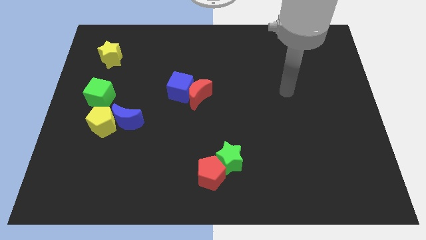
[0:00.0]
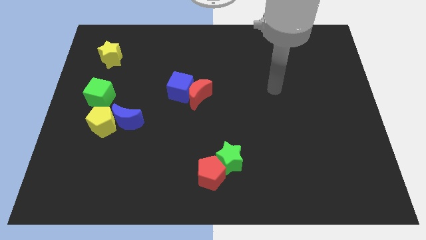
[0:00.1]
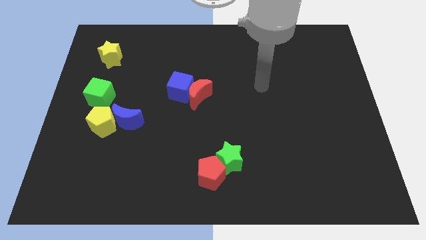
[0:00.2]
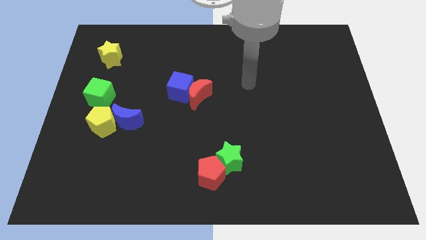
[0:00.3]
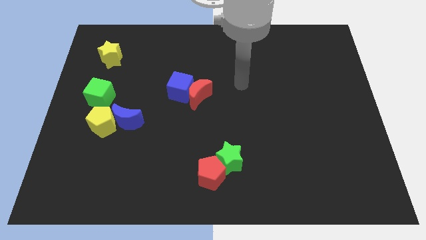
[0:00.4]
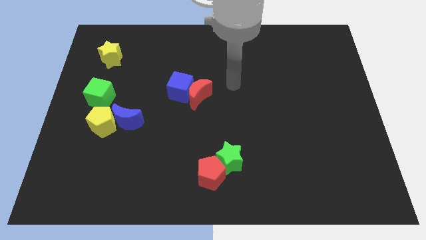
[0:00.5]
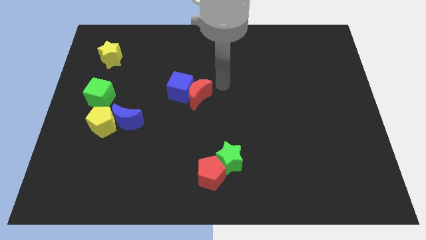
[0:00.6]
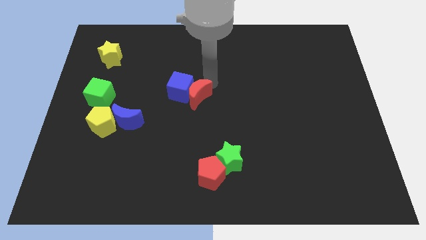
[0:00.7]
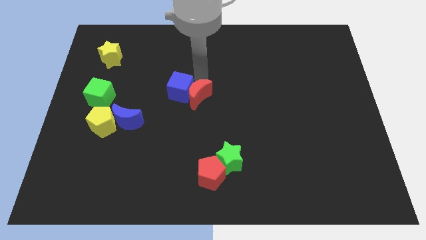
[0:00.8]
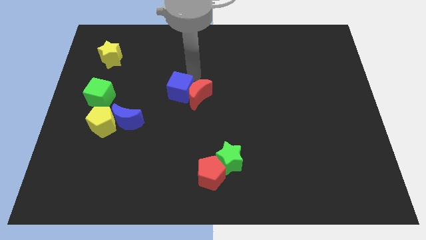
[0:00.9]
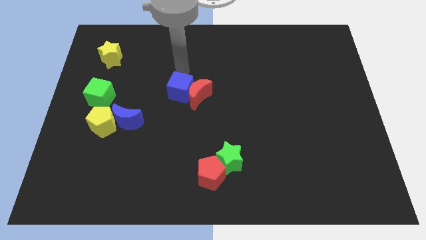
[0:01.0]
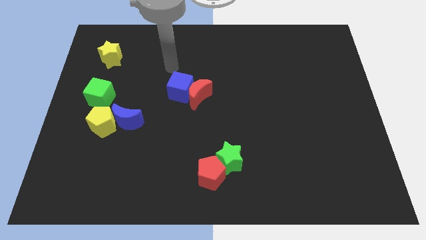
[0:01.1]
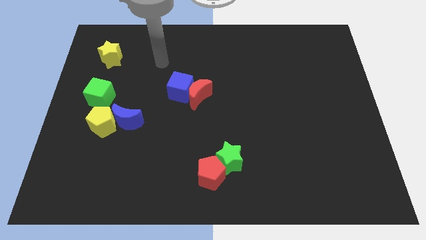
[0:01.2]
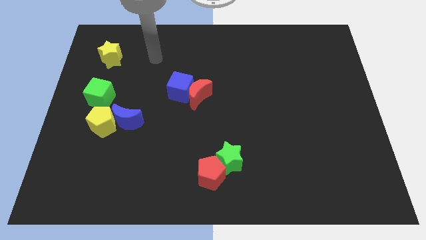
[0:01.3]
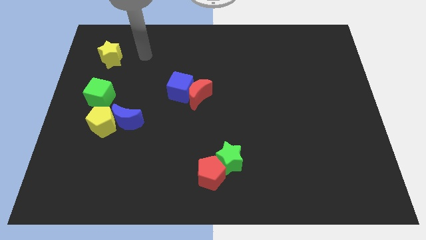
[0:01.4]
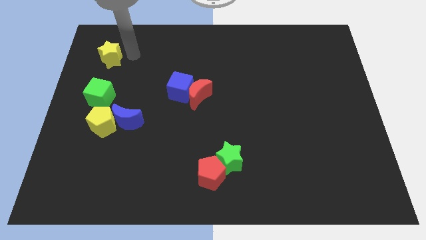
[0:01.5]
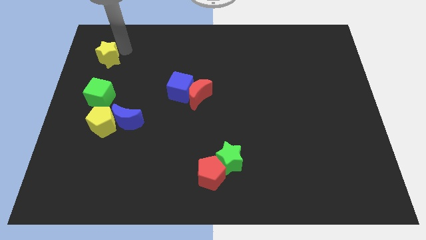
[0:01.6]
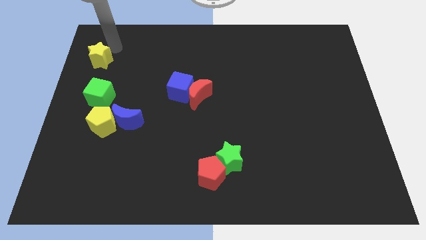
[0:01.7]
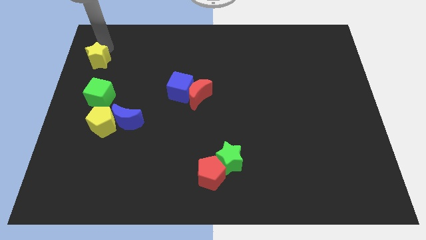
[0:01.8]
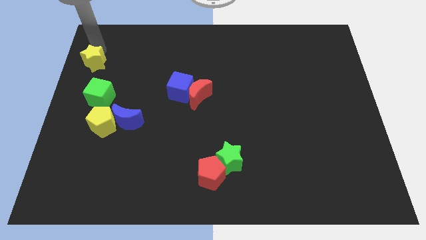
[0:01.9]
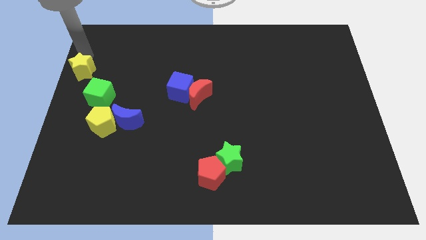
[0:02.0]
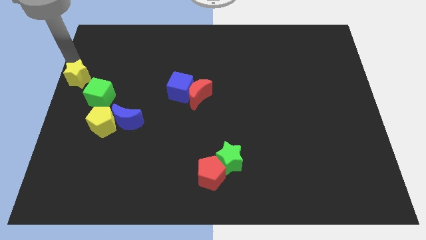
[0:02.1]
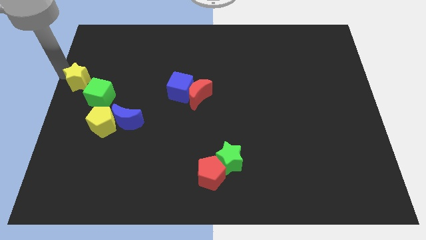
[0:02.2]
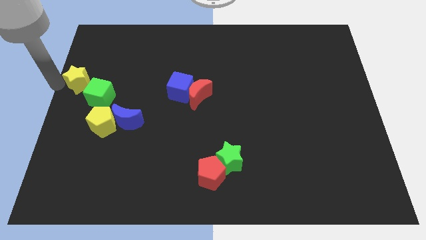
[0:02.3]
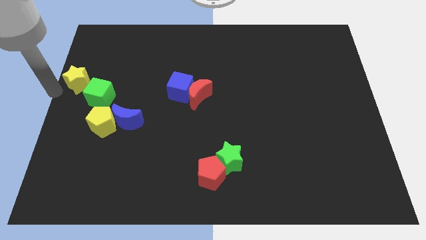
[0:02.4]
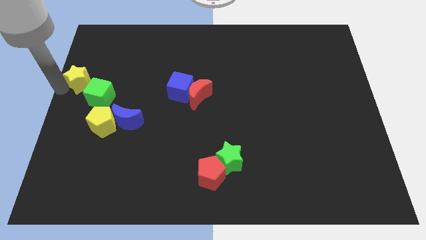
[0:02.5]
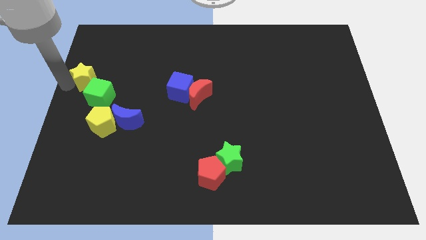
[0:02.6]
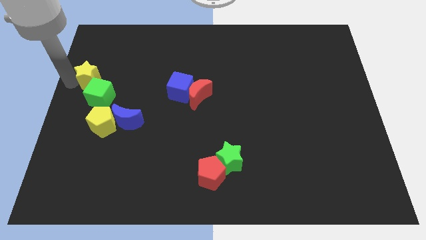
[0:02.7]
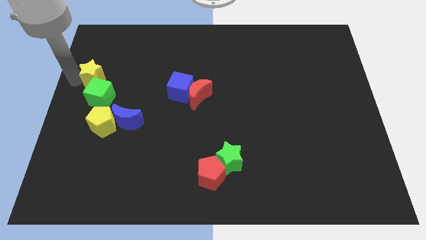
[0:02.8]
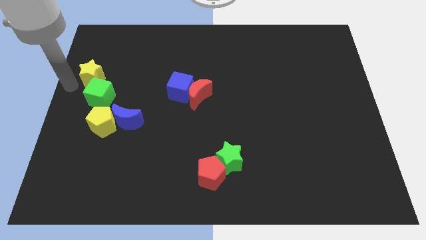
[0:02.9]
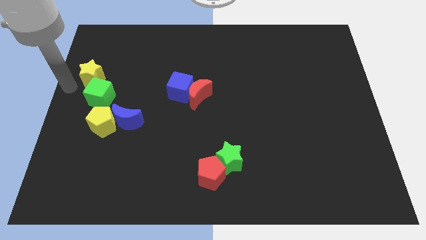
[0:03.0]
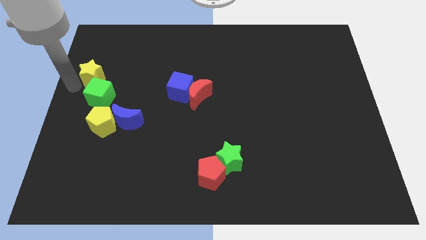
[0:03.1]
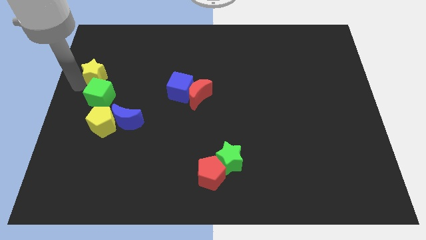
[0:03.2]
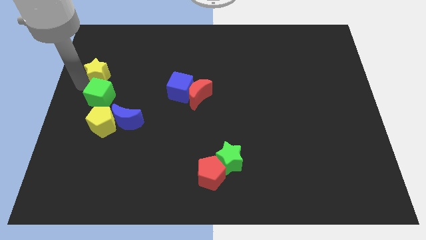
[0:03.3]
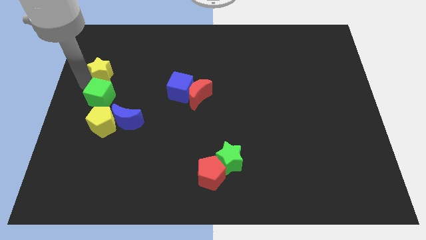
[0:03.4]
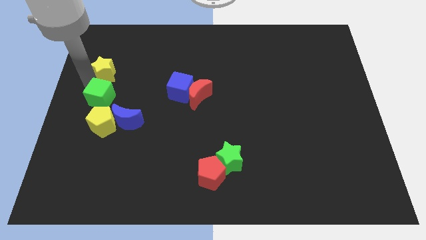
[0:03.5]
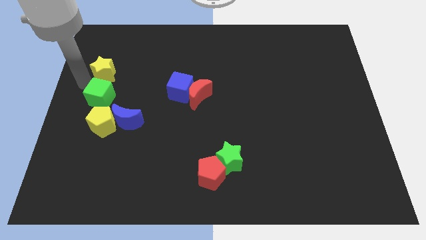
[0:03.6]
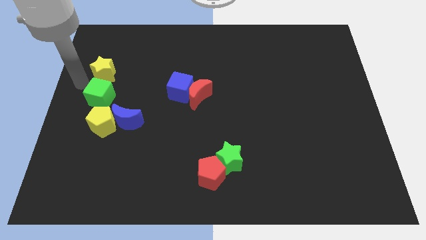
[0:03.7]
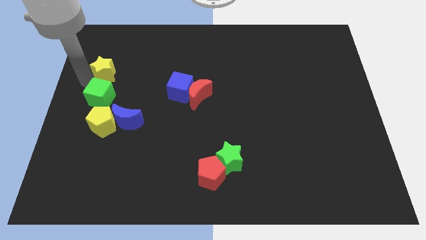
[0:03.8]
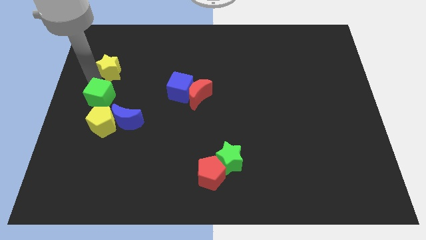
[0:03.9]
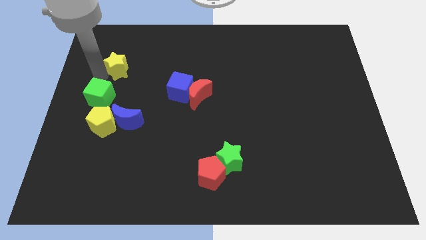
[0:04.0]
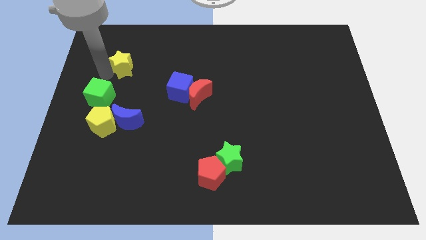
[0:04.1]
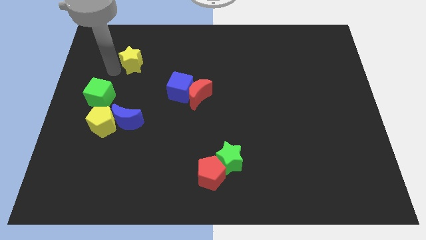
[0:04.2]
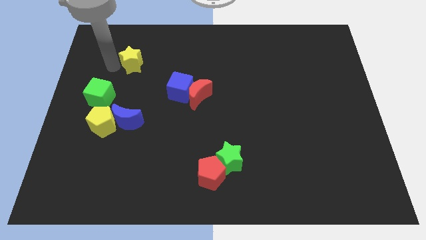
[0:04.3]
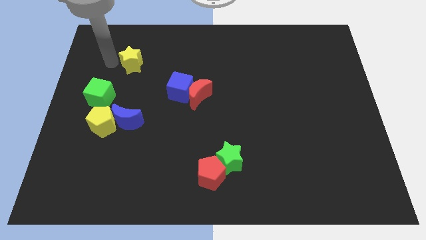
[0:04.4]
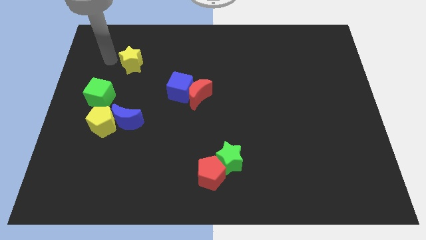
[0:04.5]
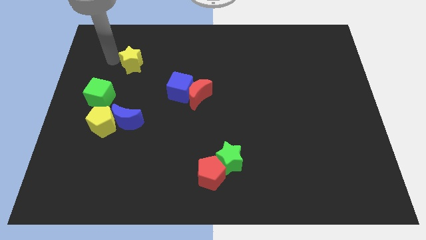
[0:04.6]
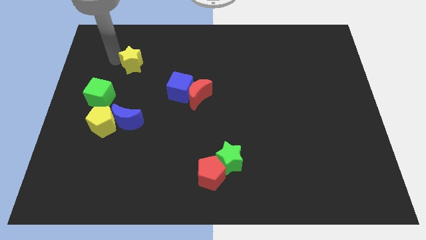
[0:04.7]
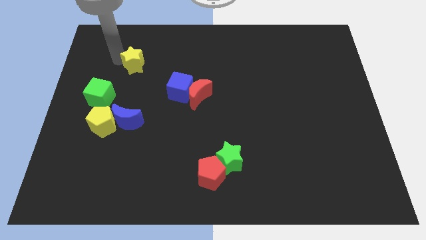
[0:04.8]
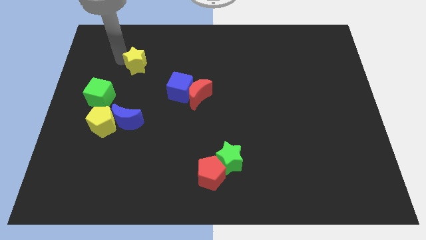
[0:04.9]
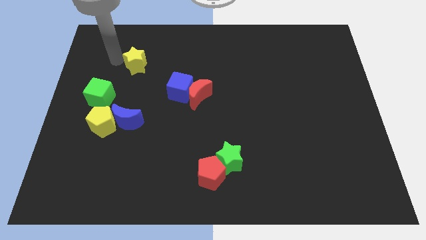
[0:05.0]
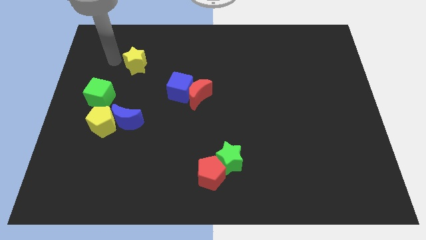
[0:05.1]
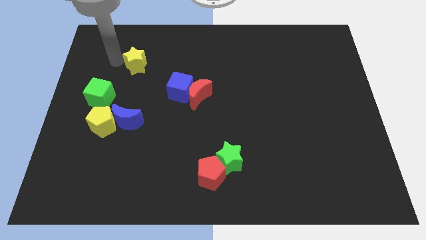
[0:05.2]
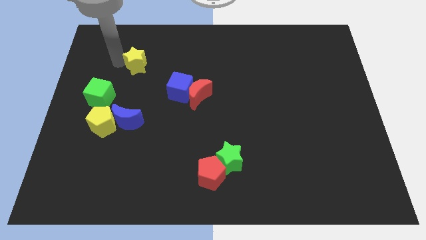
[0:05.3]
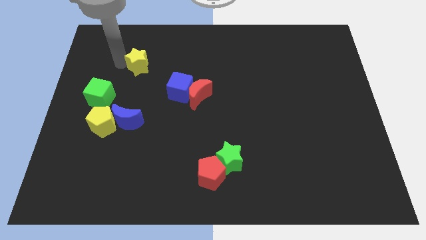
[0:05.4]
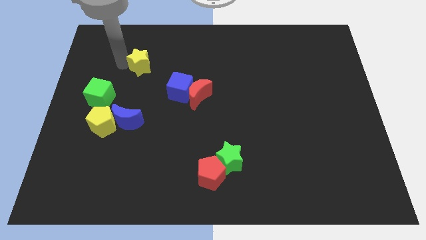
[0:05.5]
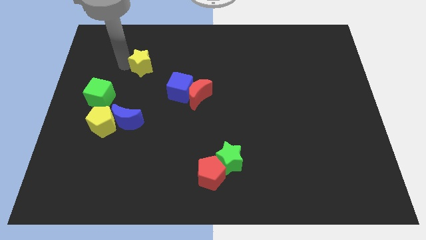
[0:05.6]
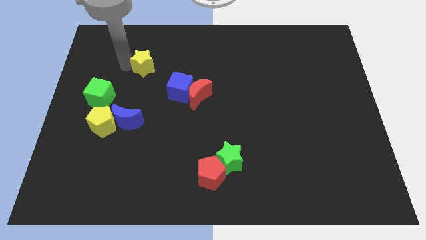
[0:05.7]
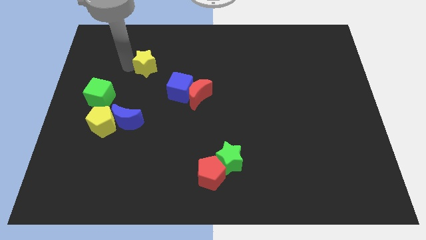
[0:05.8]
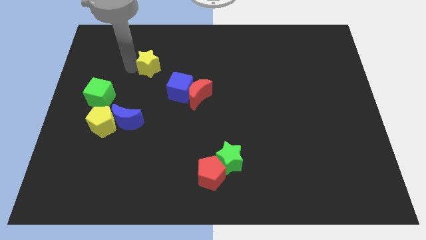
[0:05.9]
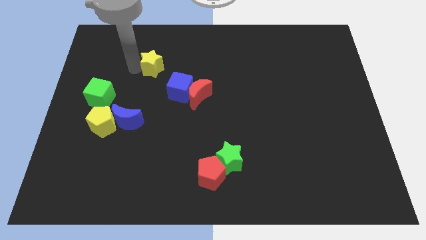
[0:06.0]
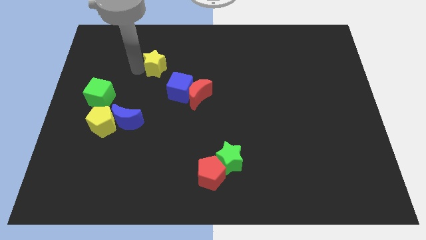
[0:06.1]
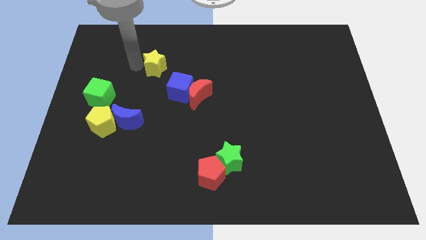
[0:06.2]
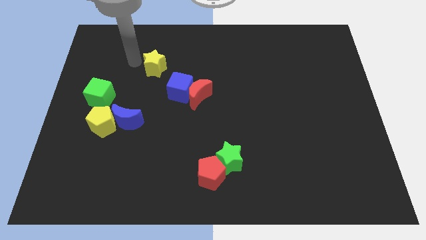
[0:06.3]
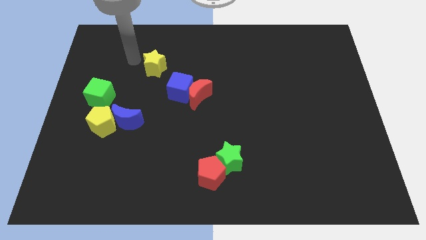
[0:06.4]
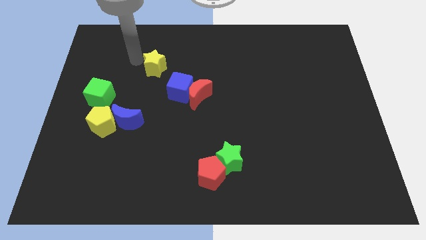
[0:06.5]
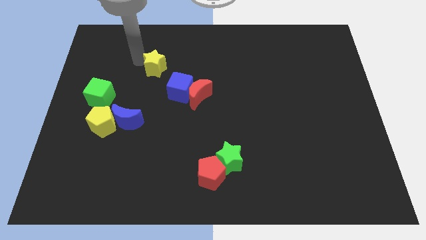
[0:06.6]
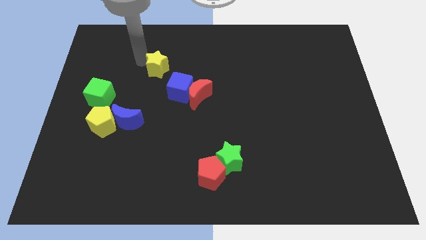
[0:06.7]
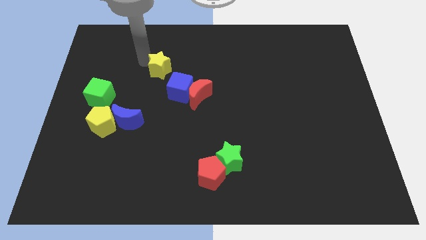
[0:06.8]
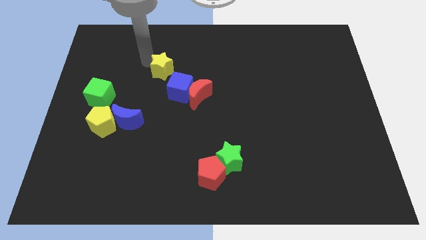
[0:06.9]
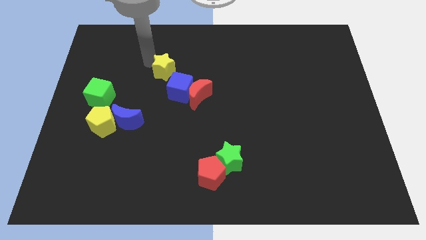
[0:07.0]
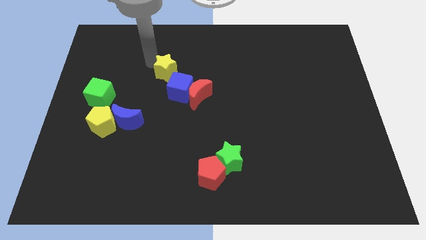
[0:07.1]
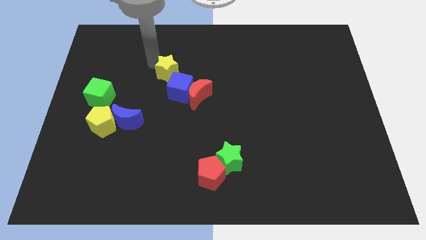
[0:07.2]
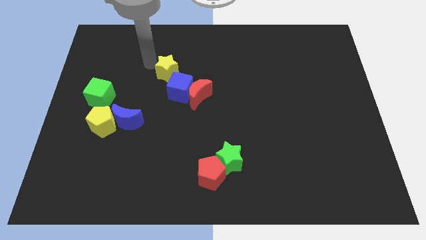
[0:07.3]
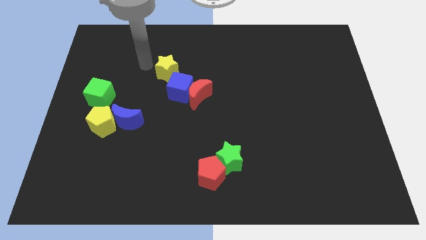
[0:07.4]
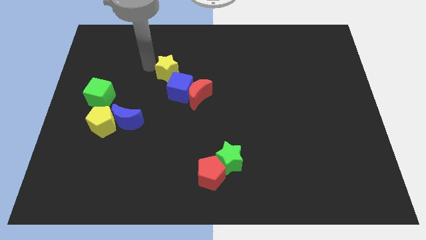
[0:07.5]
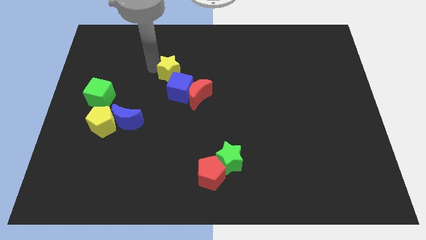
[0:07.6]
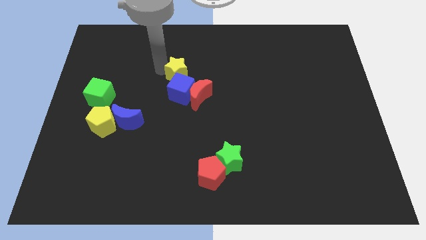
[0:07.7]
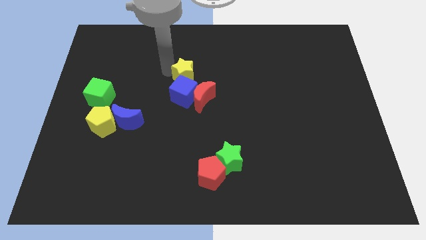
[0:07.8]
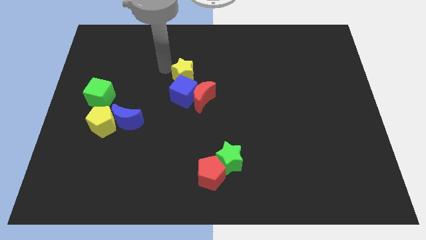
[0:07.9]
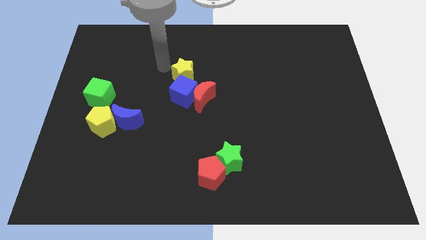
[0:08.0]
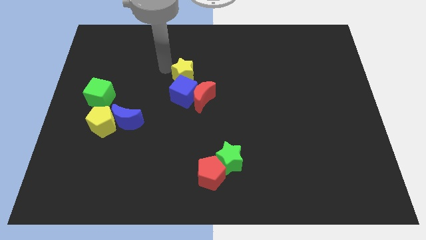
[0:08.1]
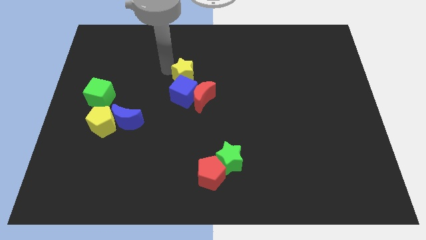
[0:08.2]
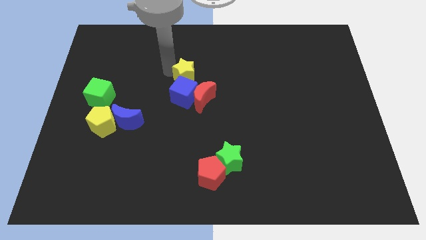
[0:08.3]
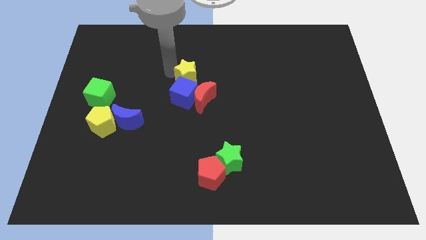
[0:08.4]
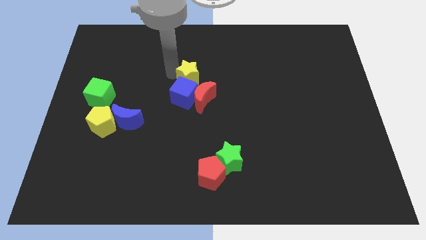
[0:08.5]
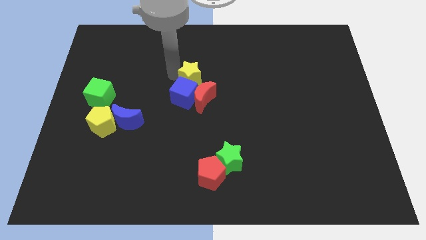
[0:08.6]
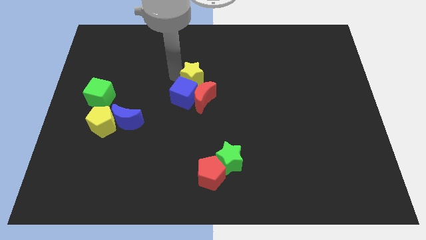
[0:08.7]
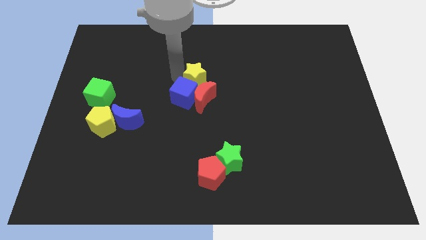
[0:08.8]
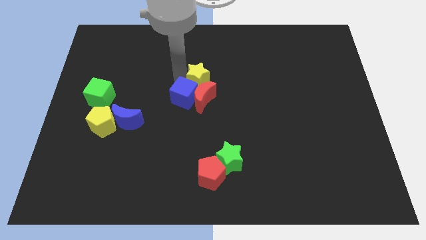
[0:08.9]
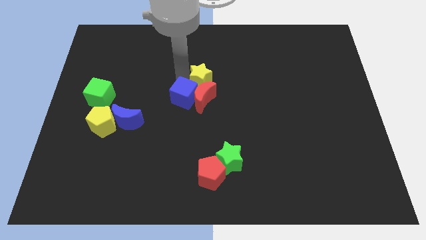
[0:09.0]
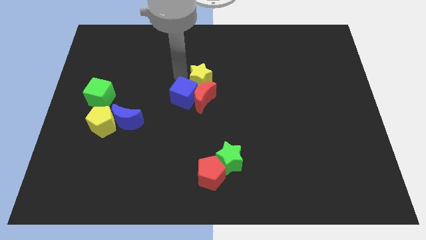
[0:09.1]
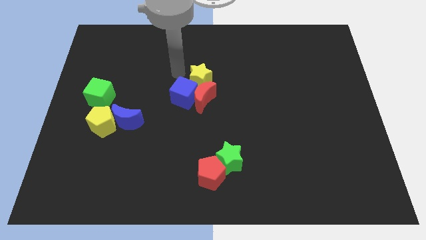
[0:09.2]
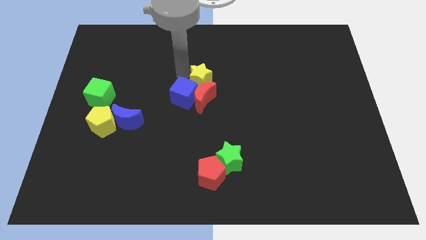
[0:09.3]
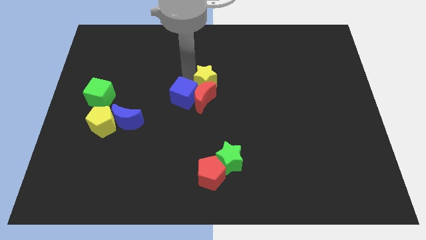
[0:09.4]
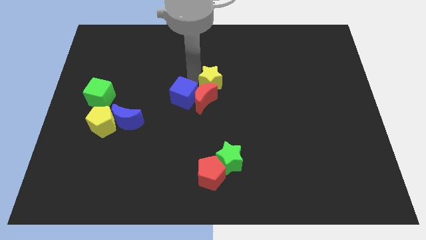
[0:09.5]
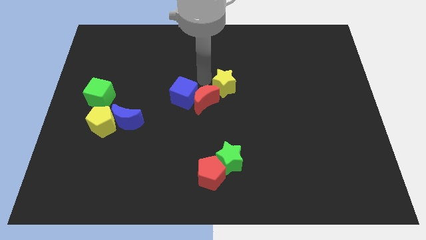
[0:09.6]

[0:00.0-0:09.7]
push the yellow star right of the red moon
